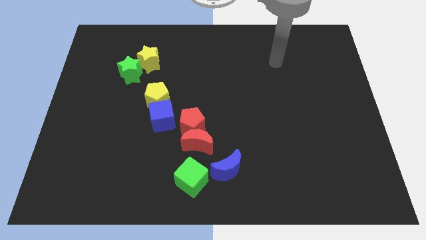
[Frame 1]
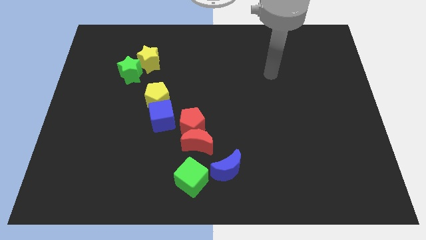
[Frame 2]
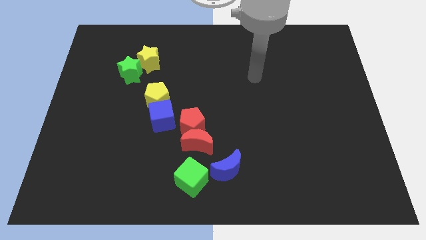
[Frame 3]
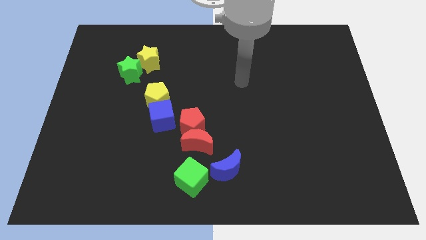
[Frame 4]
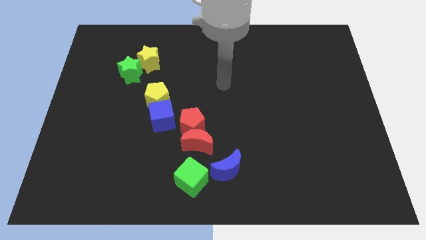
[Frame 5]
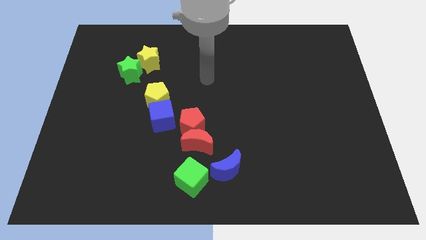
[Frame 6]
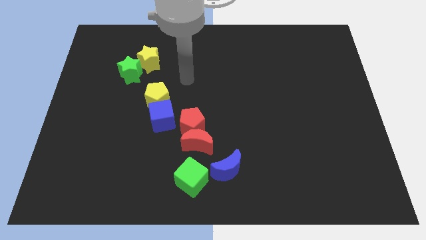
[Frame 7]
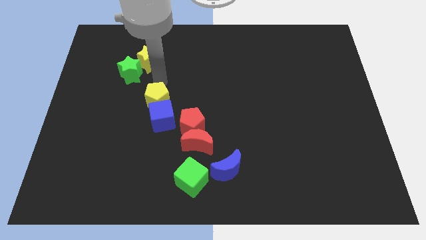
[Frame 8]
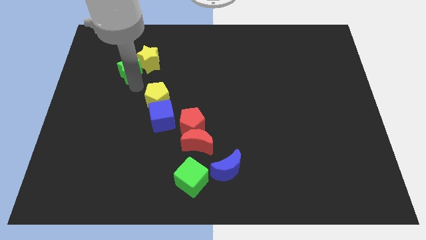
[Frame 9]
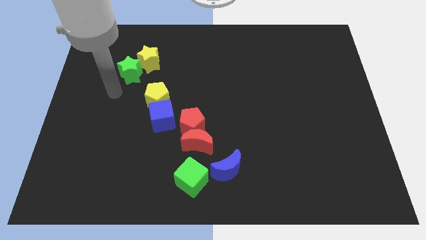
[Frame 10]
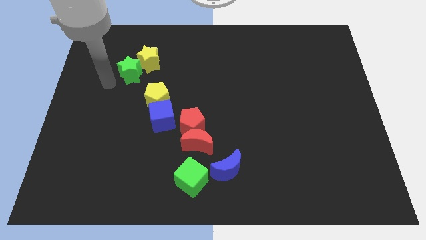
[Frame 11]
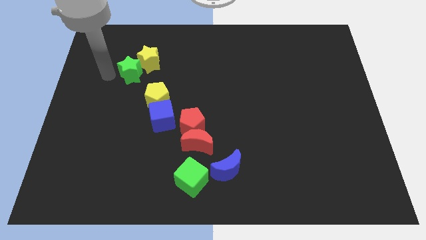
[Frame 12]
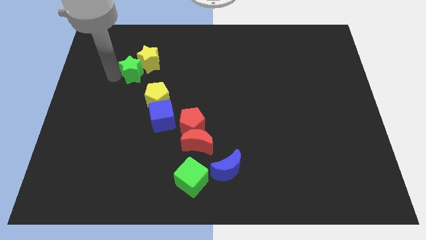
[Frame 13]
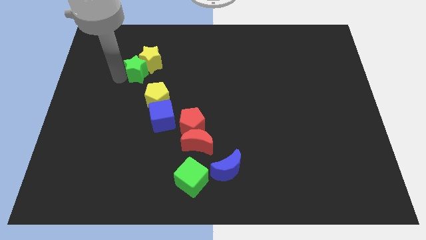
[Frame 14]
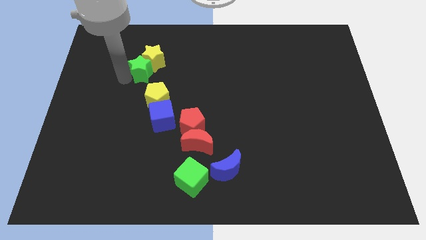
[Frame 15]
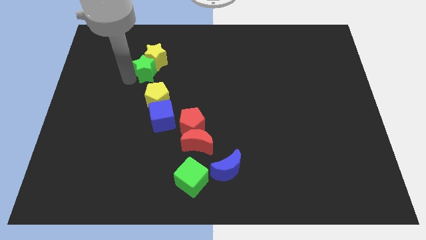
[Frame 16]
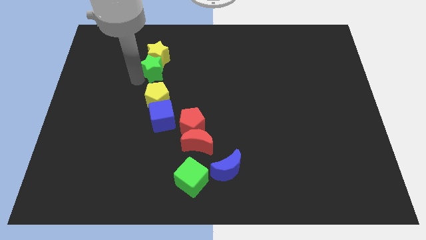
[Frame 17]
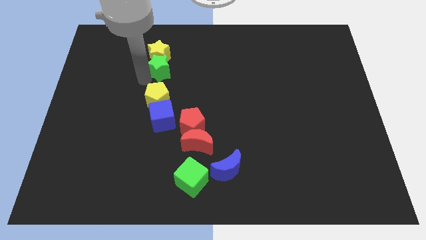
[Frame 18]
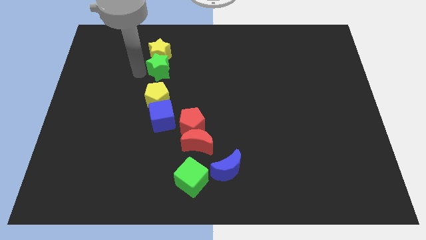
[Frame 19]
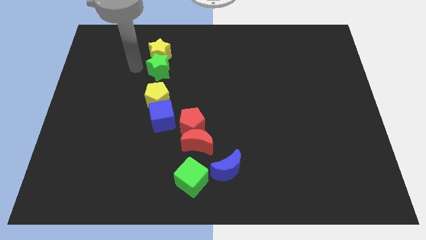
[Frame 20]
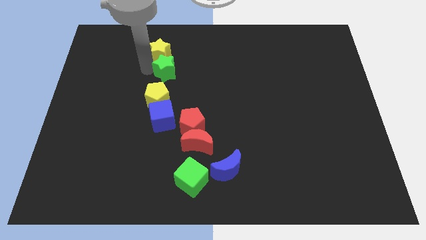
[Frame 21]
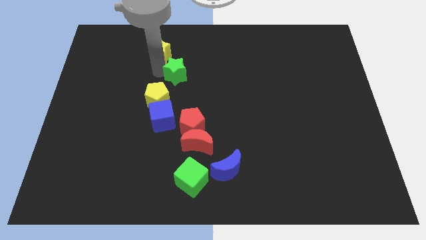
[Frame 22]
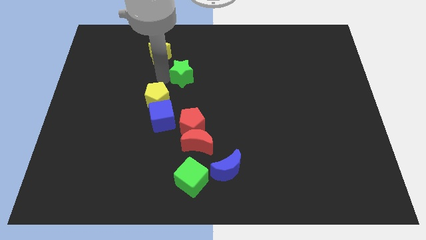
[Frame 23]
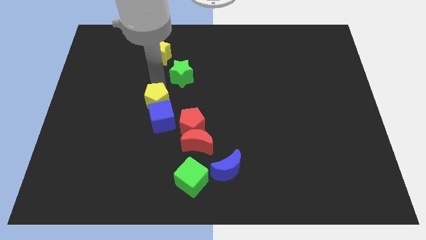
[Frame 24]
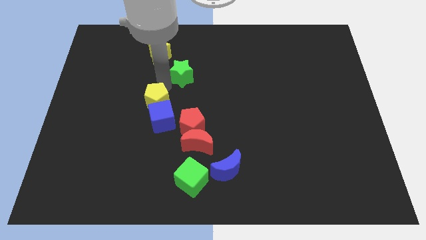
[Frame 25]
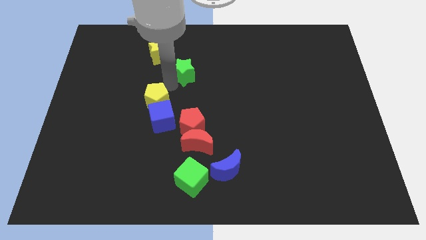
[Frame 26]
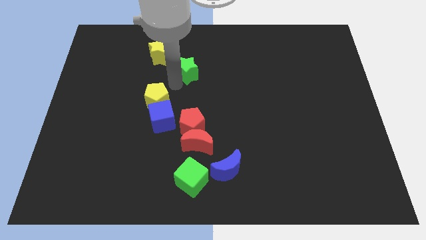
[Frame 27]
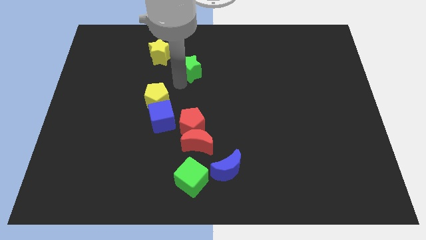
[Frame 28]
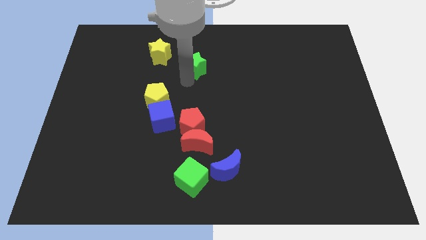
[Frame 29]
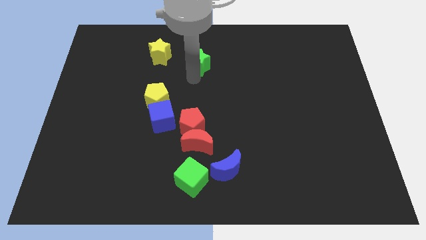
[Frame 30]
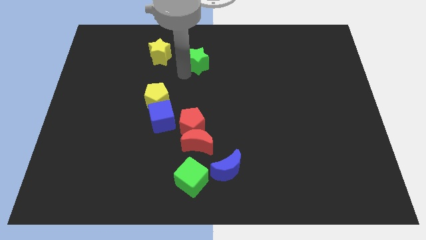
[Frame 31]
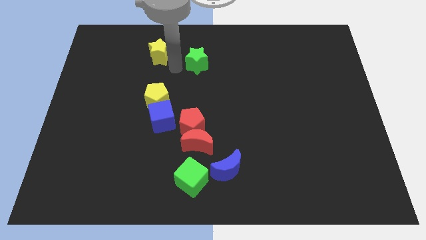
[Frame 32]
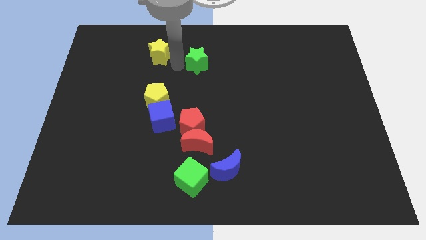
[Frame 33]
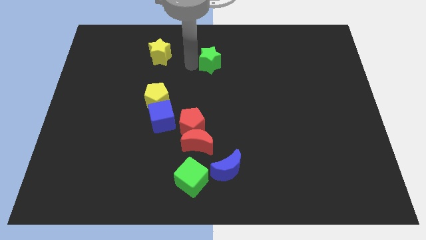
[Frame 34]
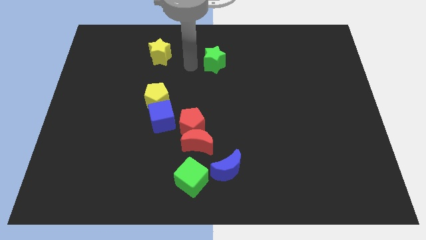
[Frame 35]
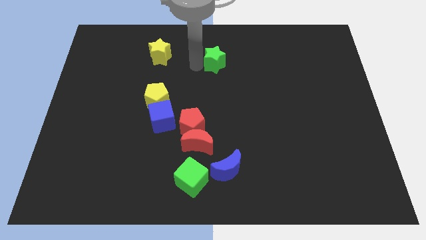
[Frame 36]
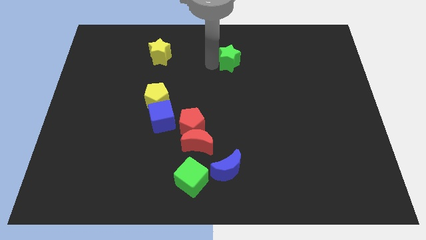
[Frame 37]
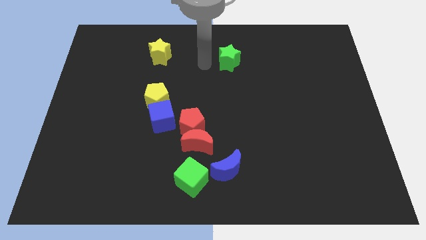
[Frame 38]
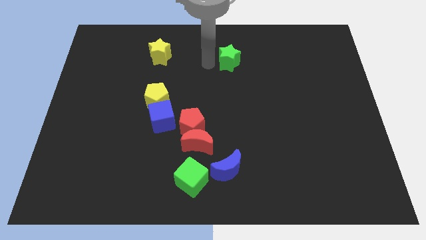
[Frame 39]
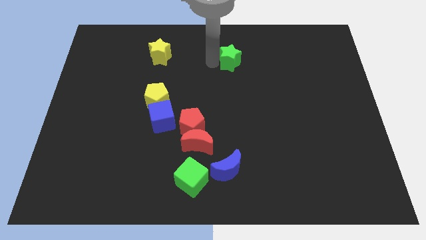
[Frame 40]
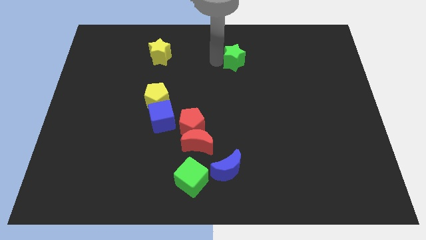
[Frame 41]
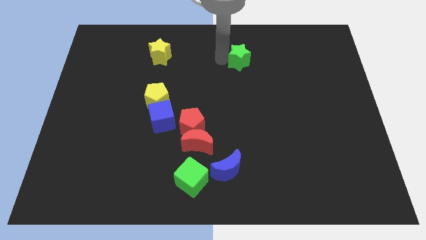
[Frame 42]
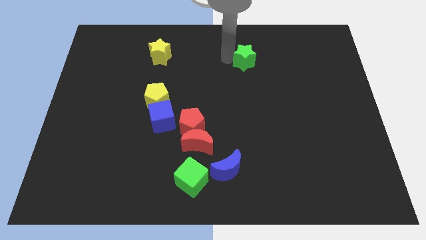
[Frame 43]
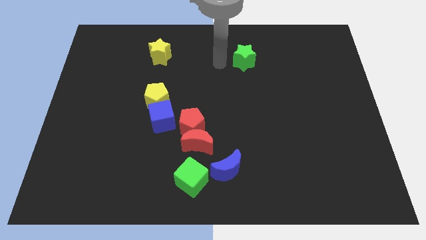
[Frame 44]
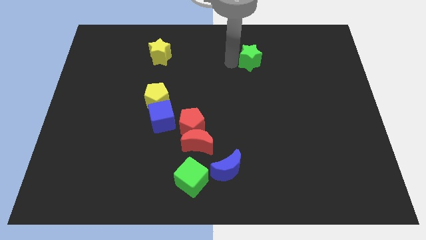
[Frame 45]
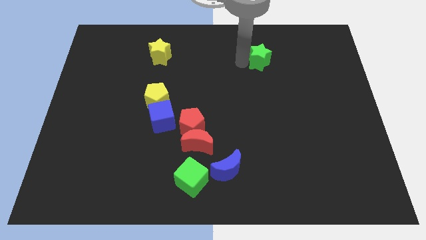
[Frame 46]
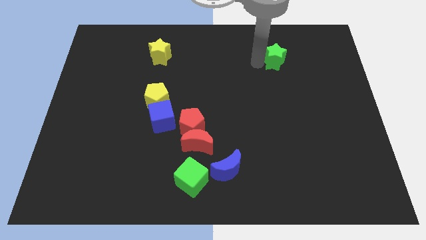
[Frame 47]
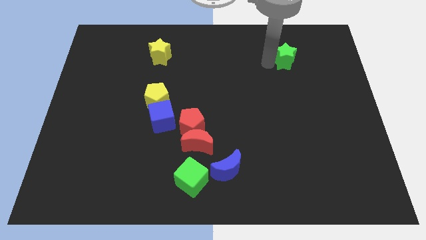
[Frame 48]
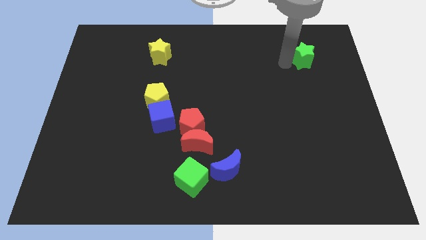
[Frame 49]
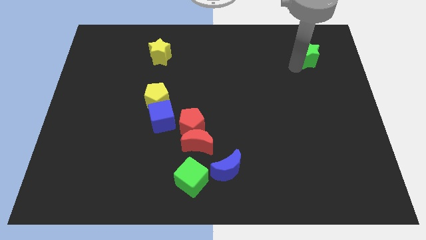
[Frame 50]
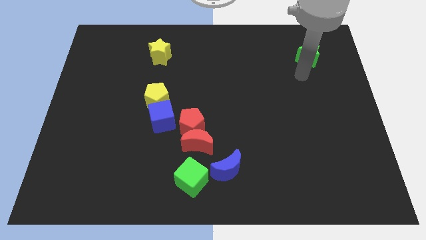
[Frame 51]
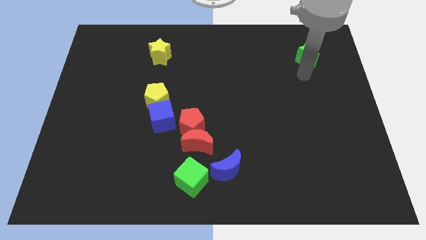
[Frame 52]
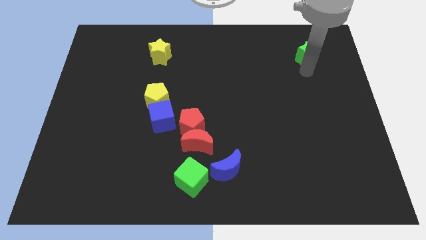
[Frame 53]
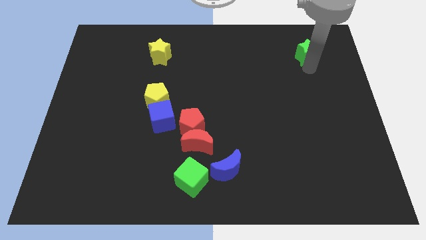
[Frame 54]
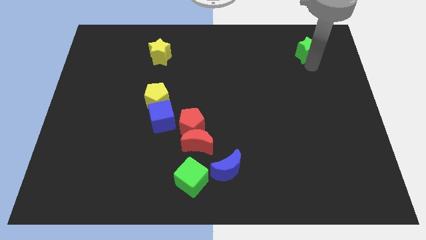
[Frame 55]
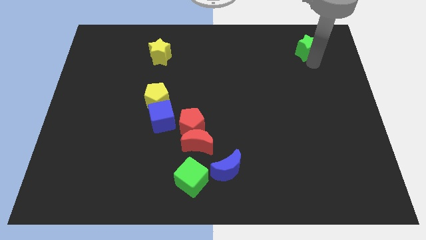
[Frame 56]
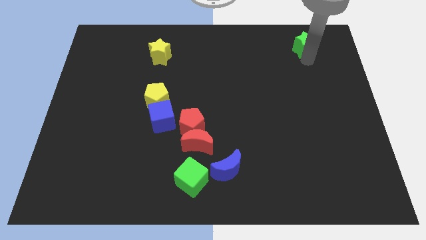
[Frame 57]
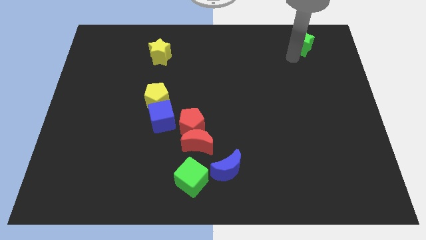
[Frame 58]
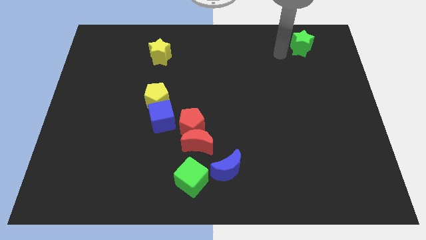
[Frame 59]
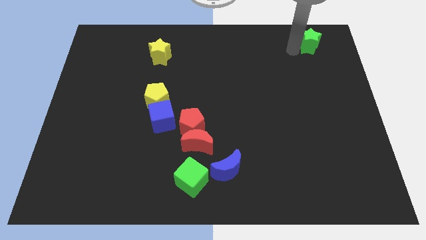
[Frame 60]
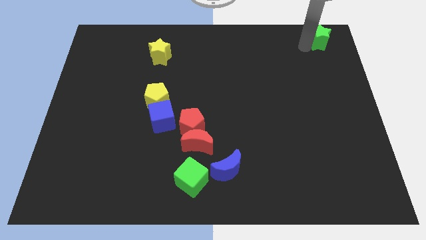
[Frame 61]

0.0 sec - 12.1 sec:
move the green star to the top right
